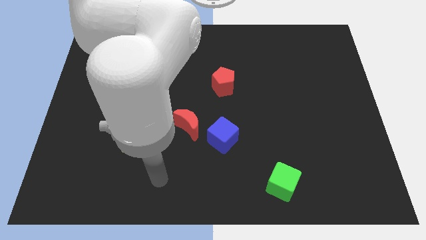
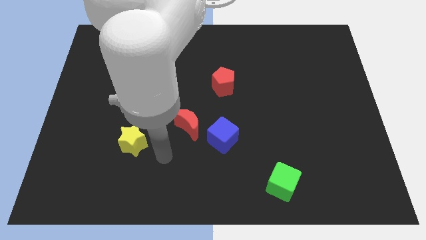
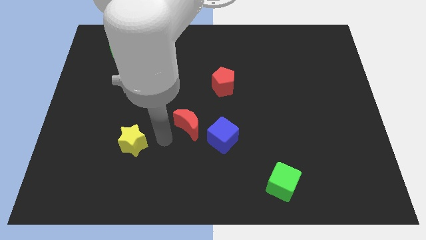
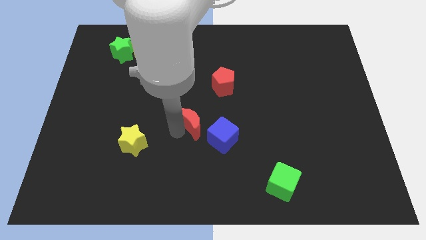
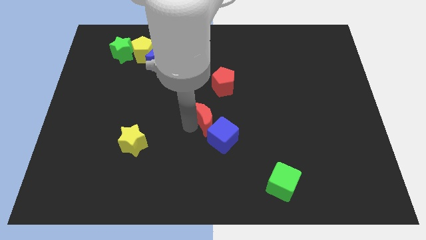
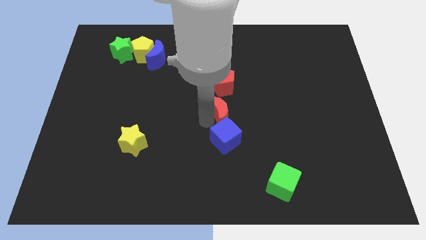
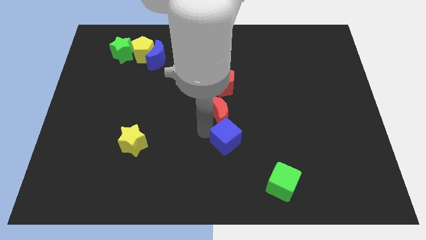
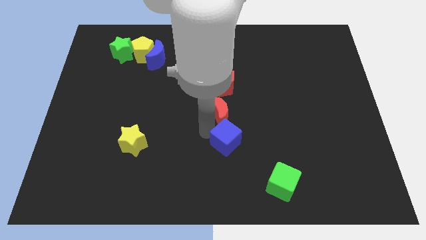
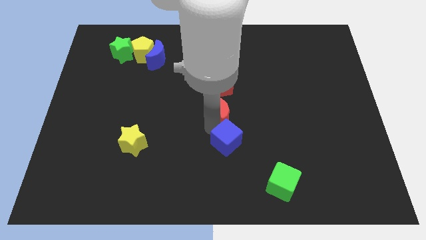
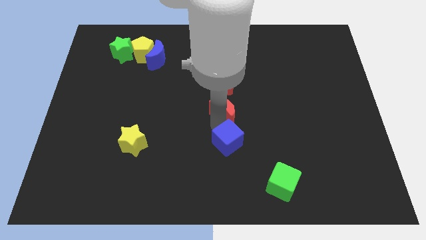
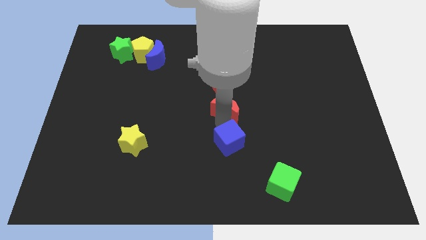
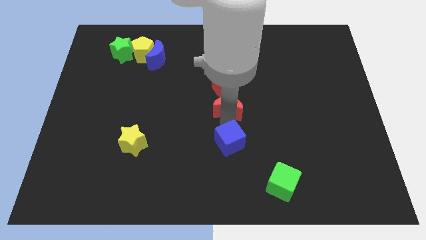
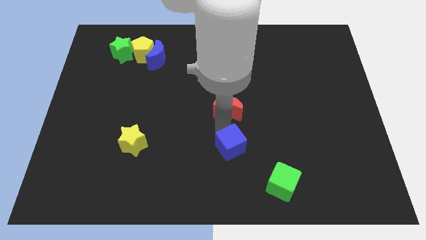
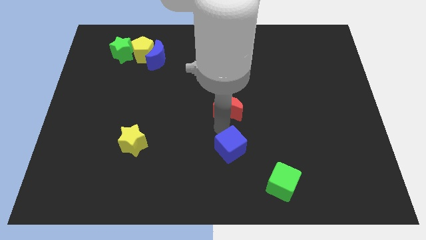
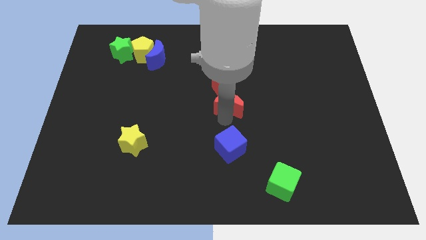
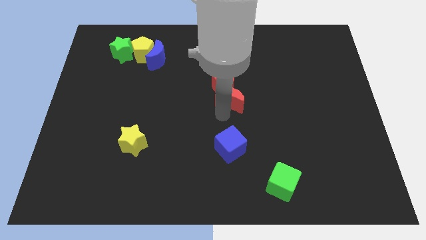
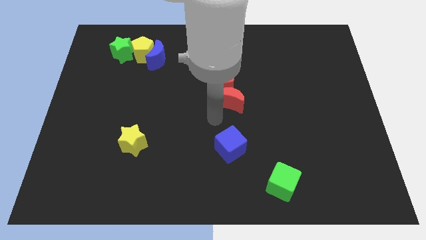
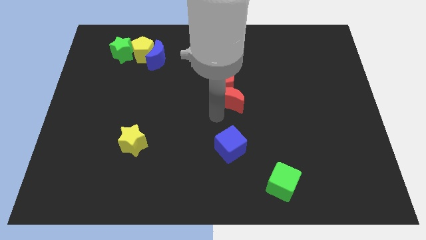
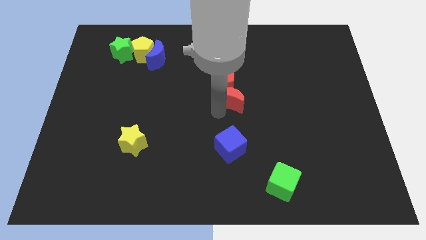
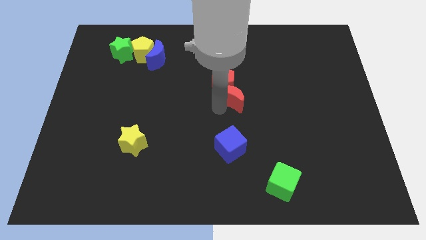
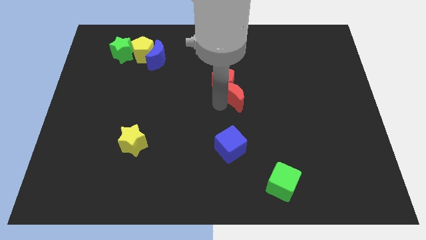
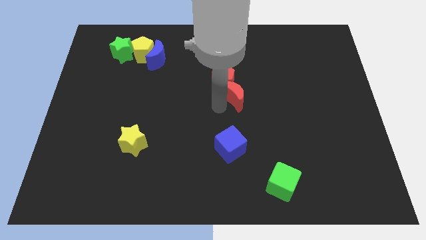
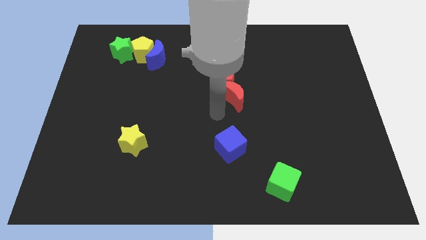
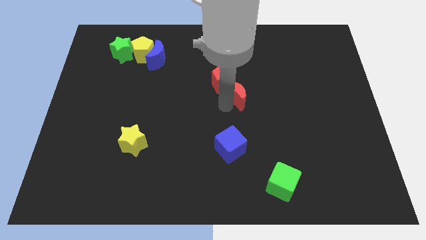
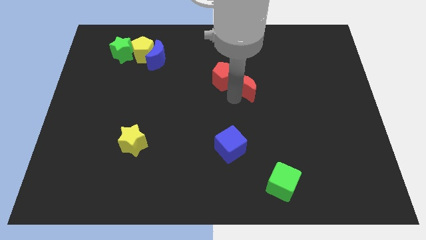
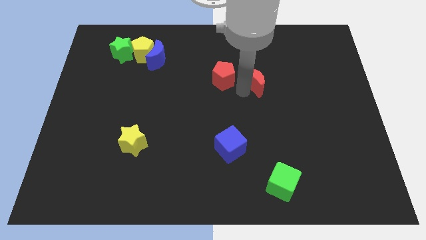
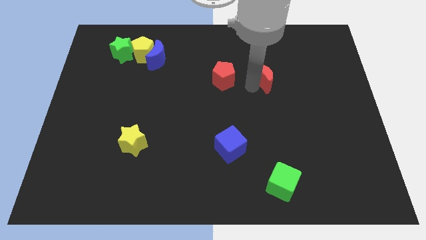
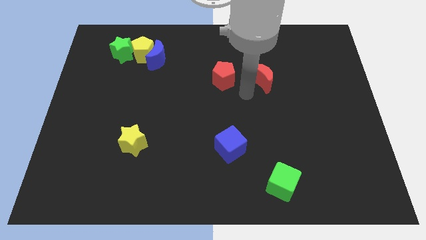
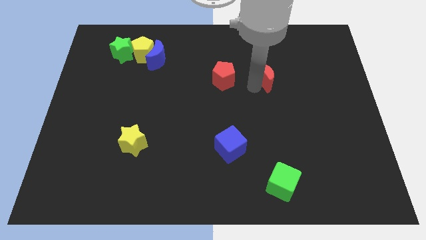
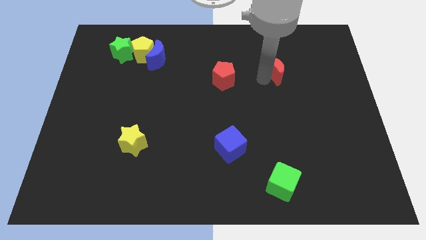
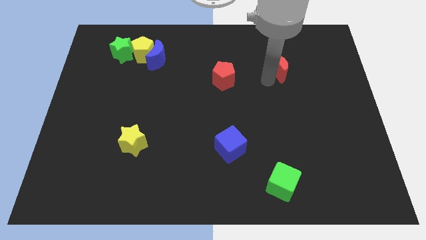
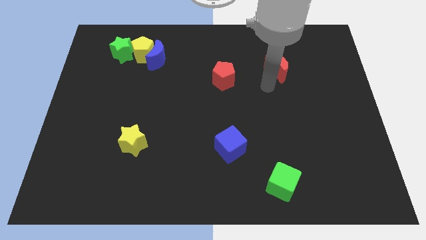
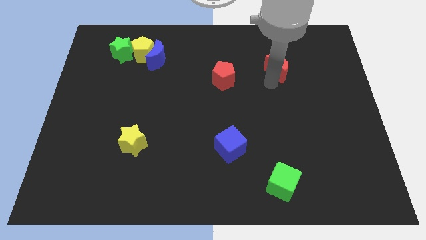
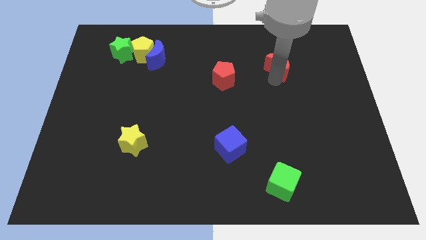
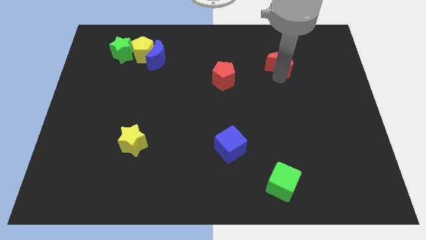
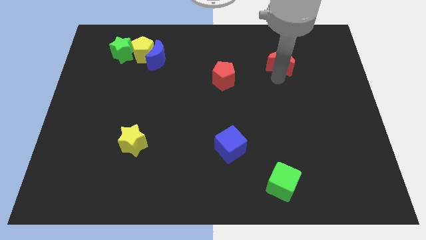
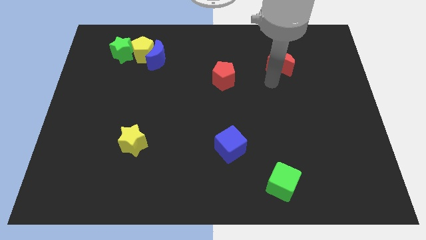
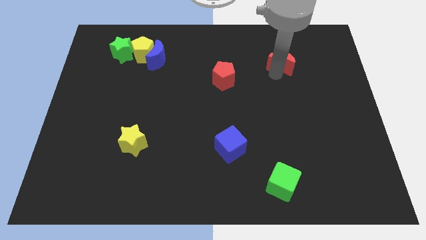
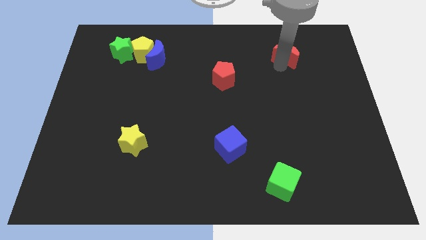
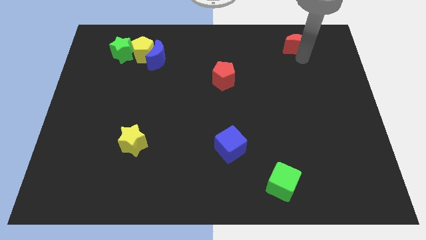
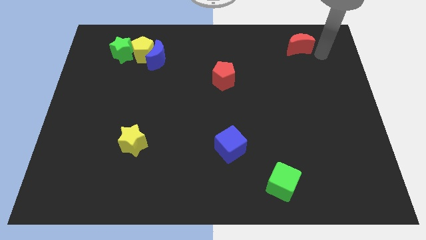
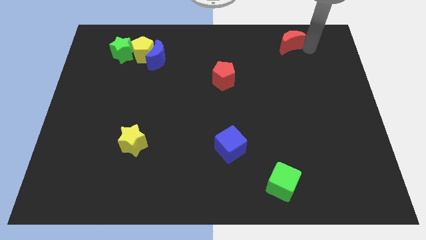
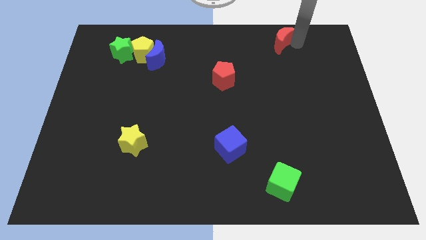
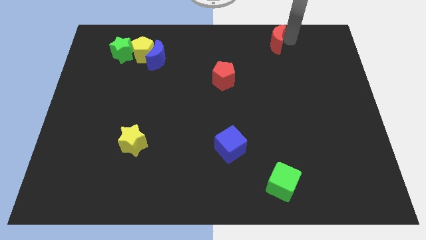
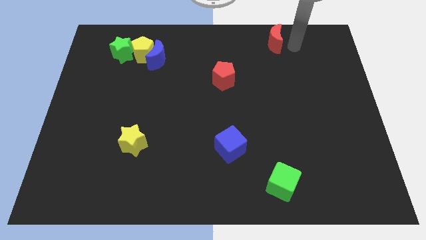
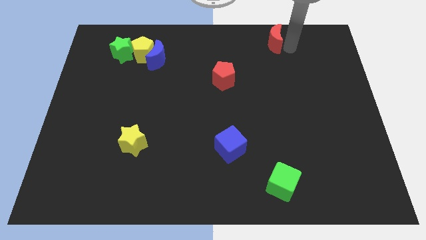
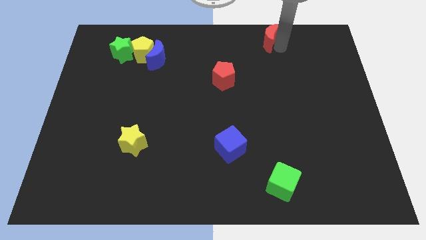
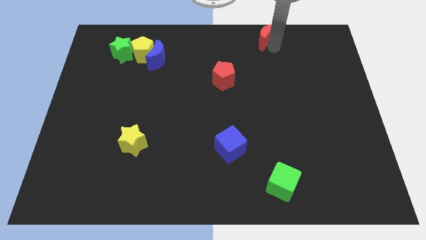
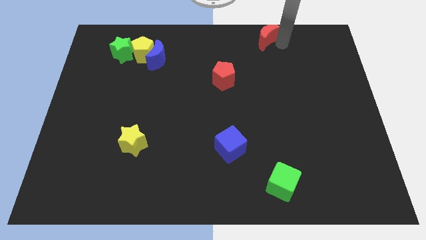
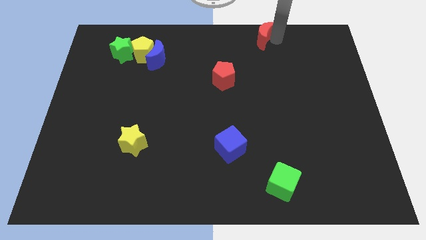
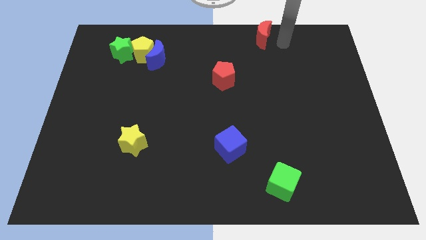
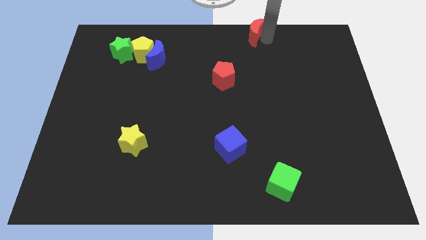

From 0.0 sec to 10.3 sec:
slide the red moon to the top side

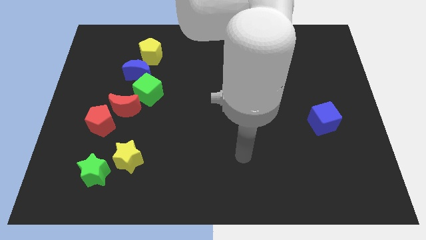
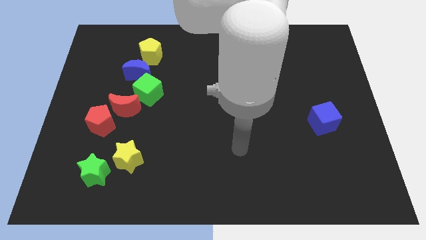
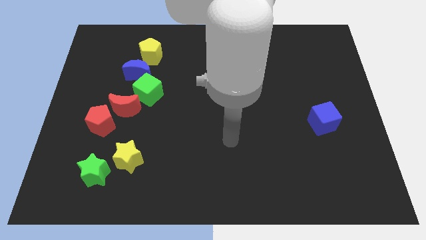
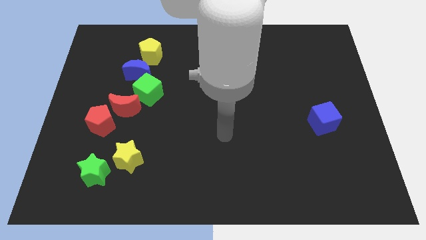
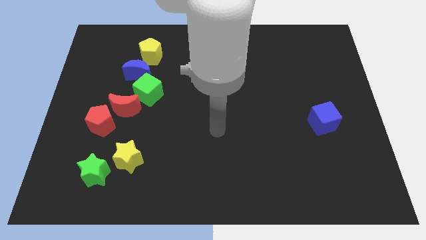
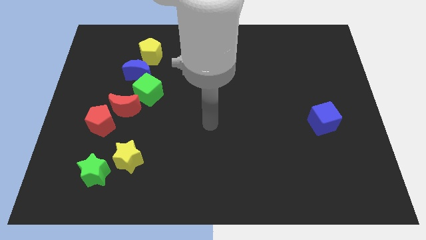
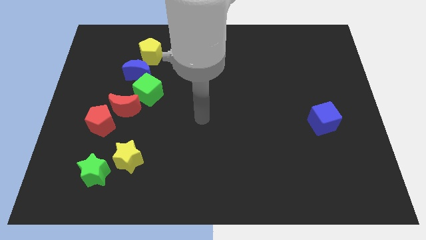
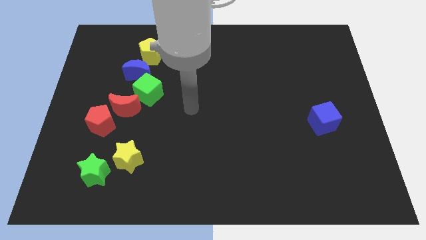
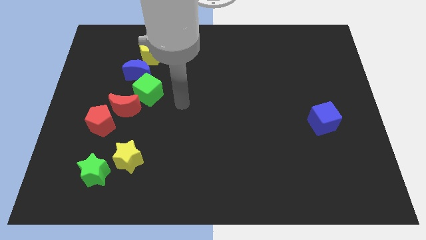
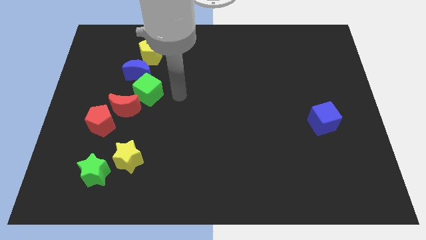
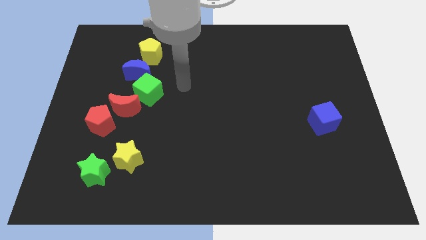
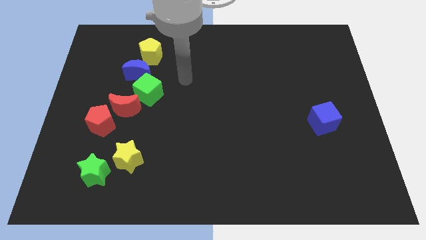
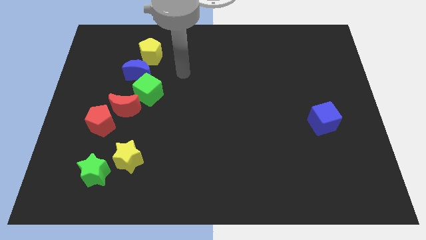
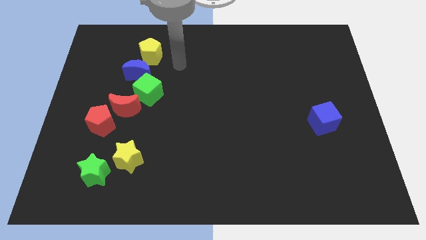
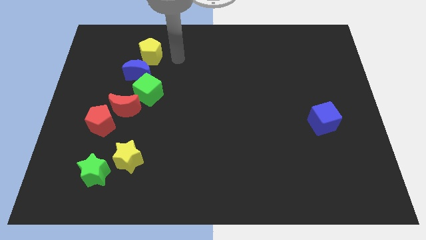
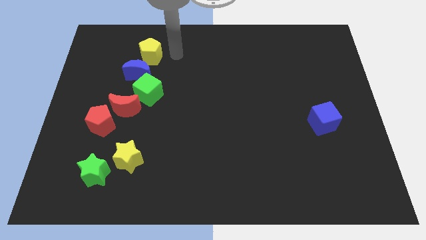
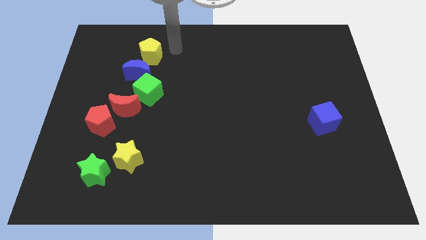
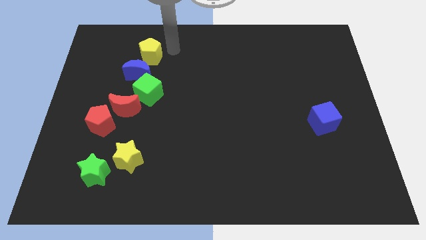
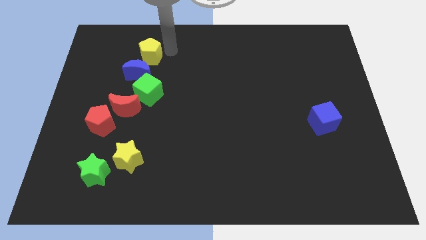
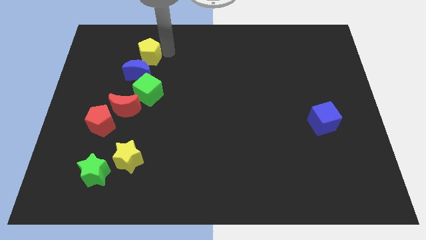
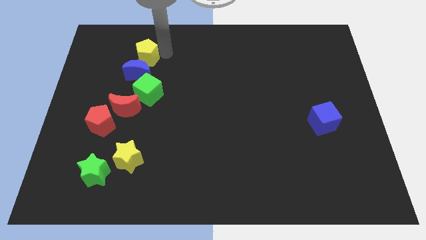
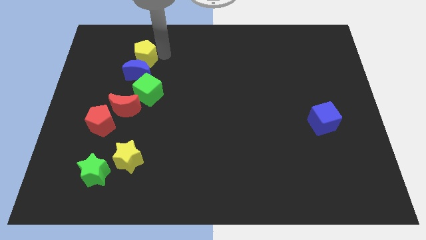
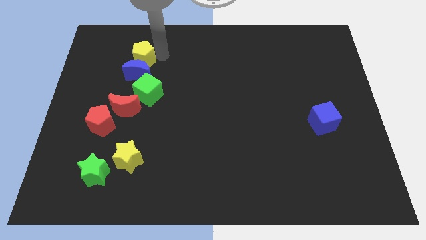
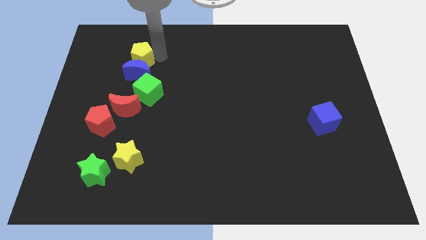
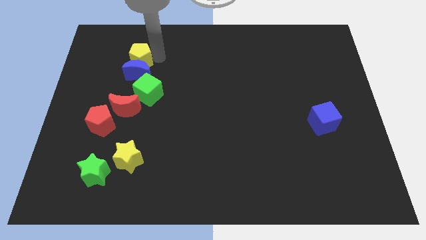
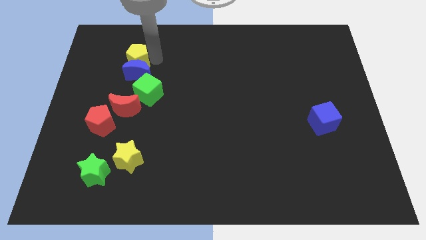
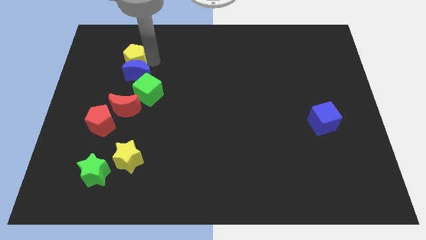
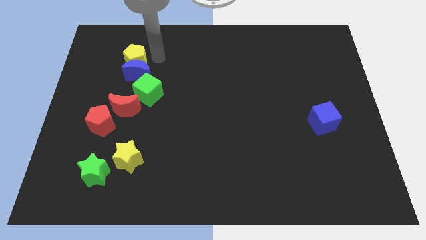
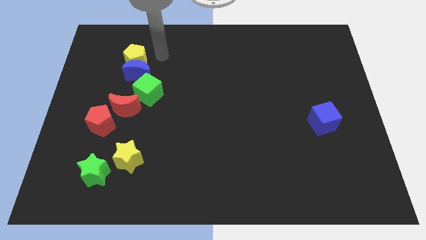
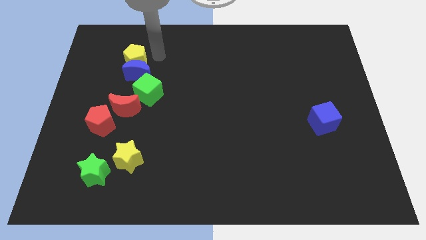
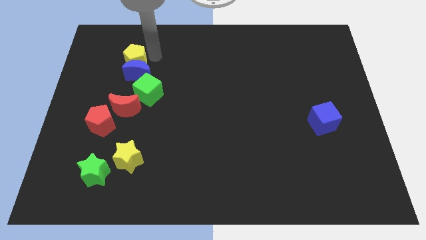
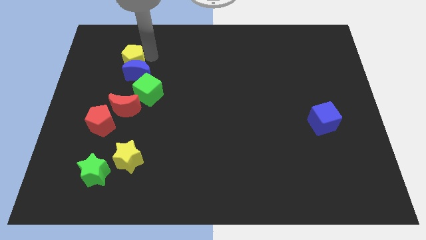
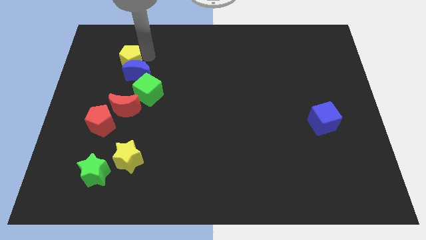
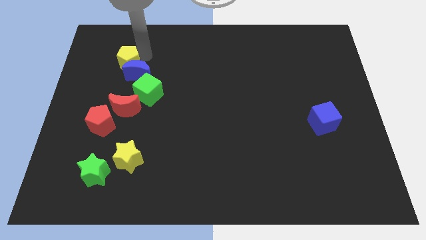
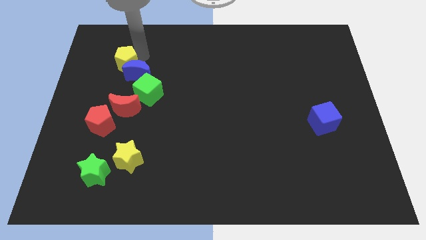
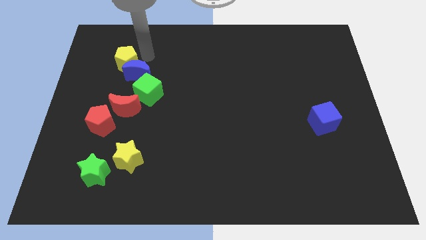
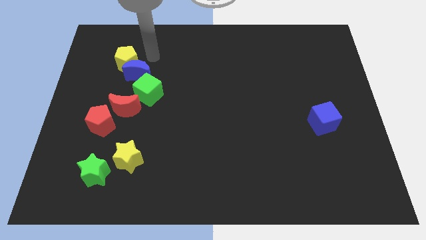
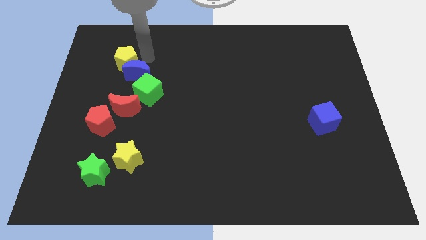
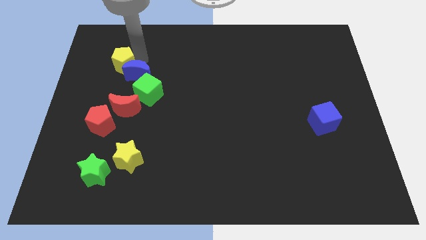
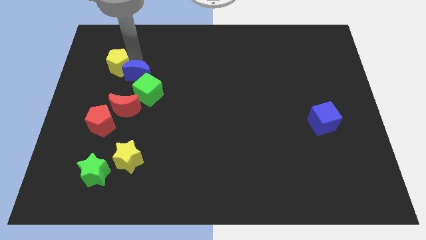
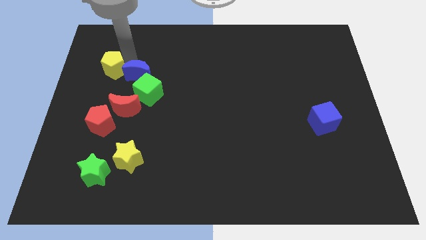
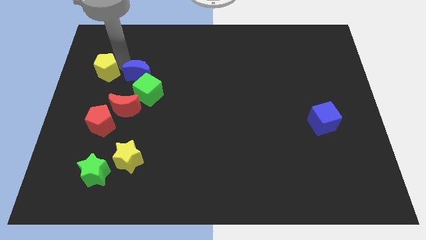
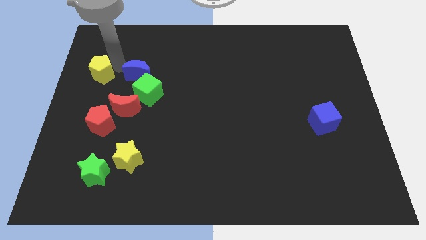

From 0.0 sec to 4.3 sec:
put the yellow pentagon to the left side of the board
